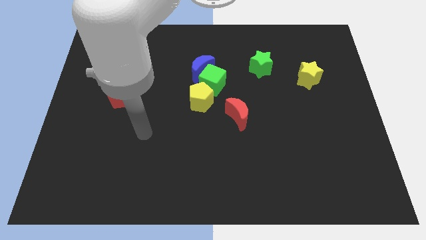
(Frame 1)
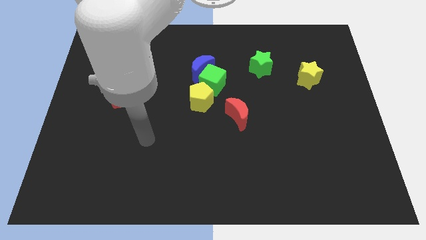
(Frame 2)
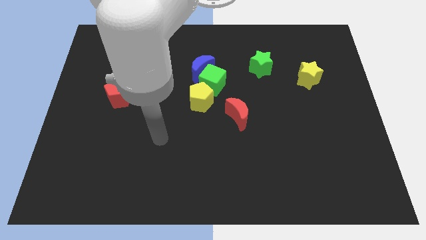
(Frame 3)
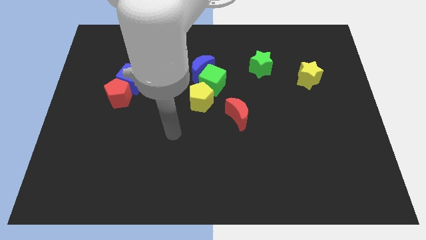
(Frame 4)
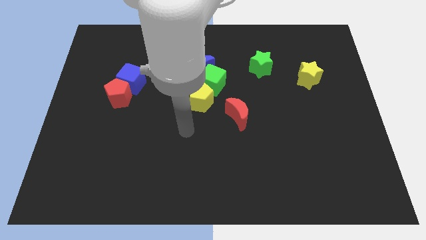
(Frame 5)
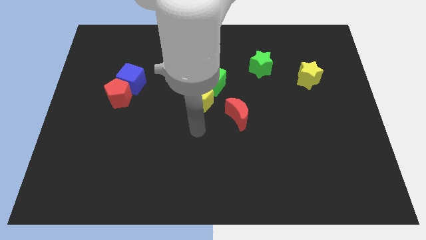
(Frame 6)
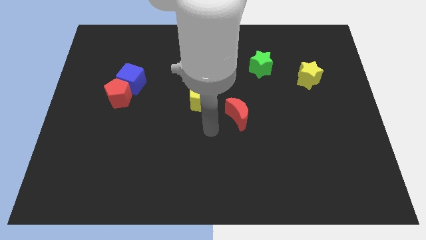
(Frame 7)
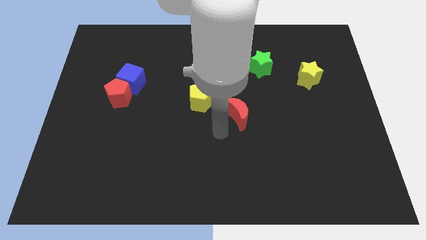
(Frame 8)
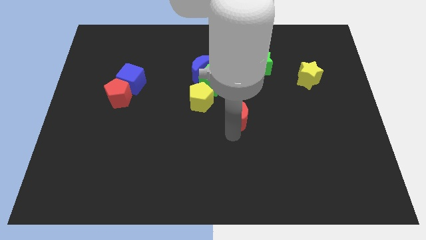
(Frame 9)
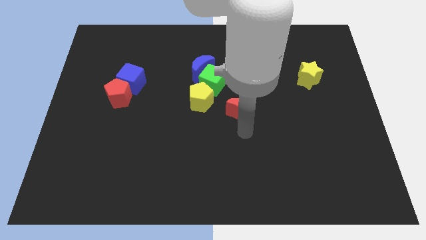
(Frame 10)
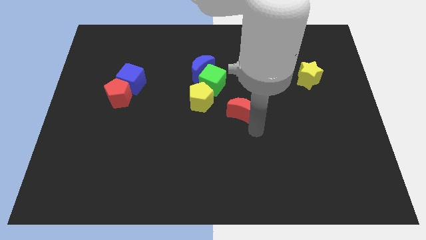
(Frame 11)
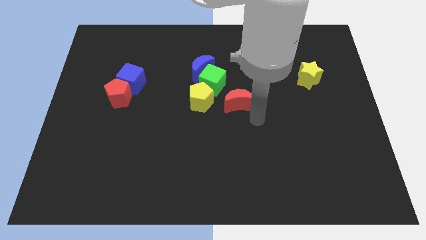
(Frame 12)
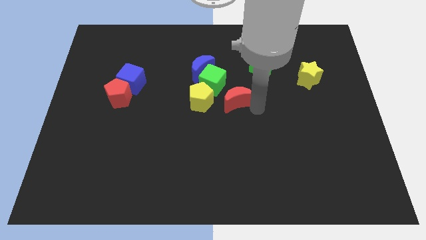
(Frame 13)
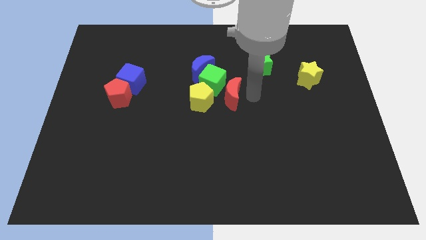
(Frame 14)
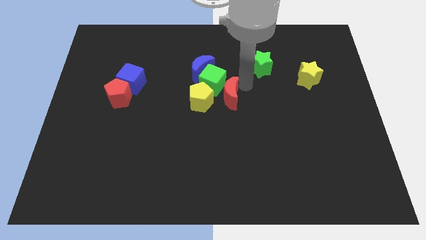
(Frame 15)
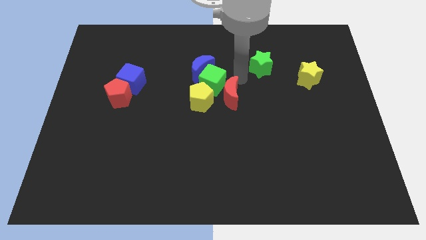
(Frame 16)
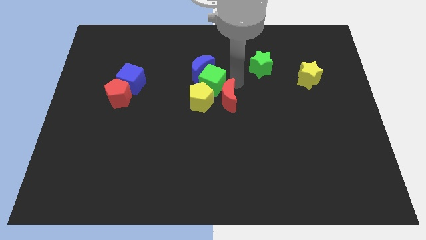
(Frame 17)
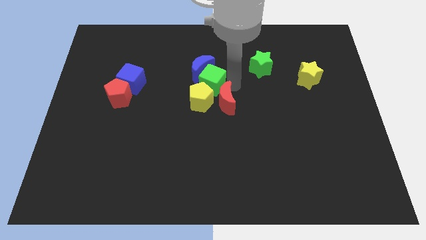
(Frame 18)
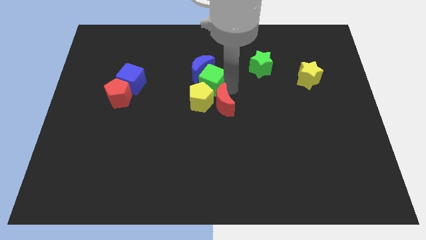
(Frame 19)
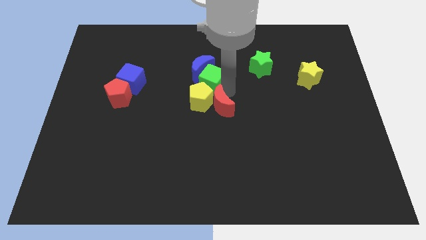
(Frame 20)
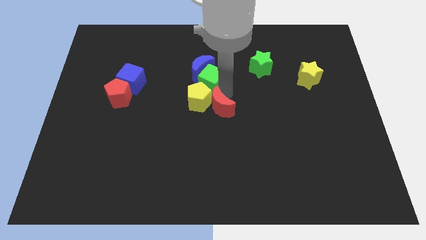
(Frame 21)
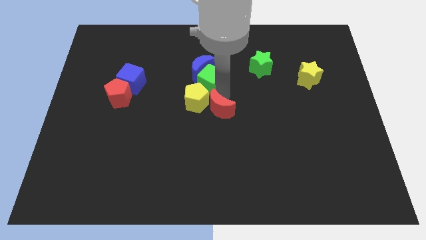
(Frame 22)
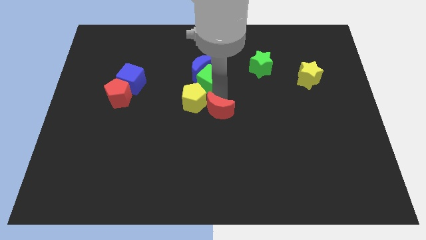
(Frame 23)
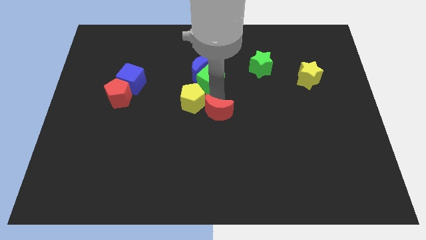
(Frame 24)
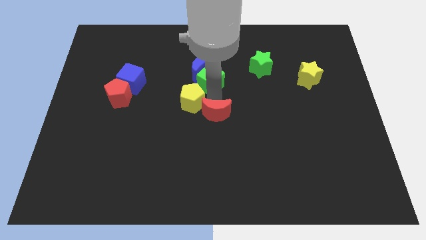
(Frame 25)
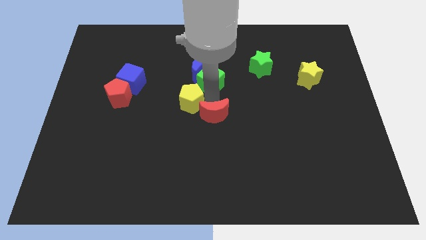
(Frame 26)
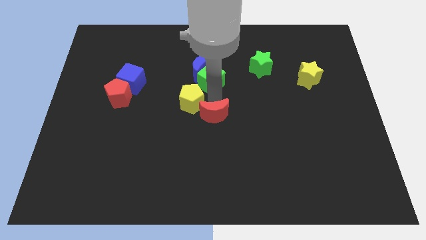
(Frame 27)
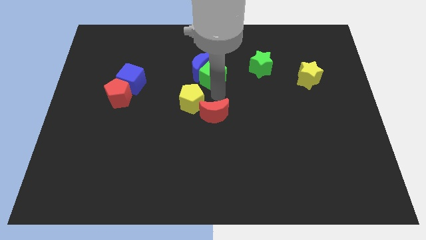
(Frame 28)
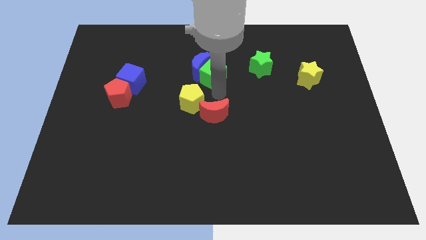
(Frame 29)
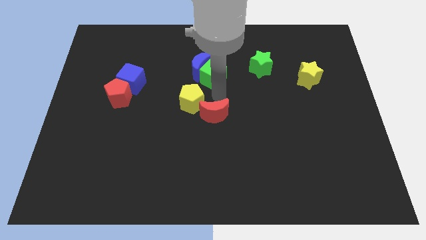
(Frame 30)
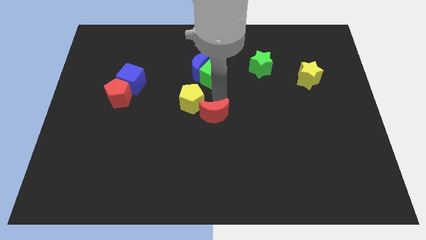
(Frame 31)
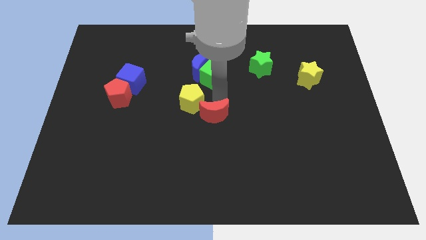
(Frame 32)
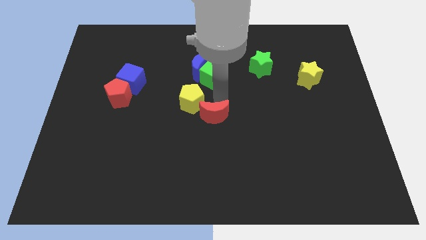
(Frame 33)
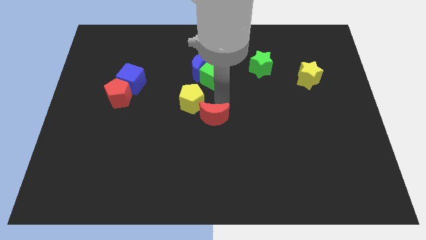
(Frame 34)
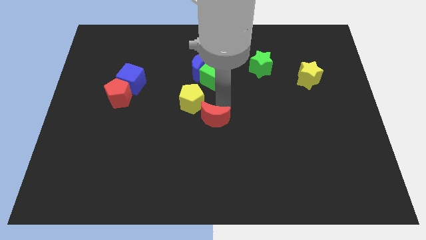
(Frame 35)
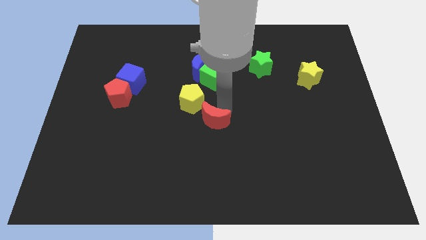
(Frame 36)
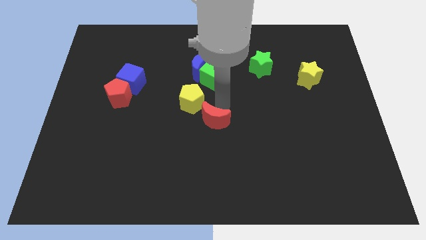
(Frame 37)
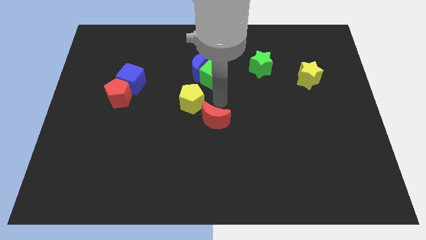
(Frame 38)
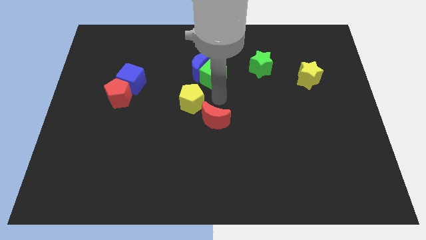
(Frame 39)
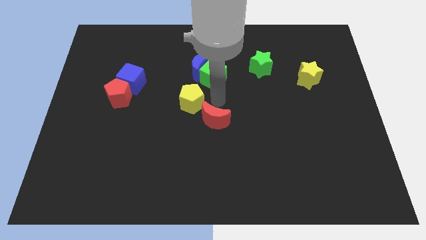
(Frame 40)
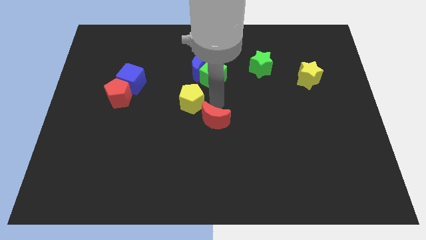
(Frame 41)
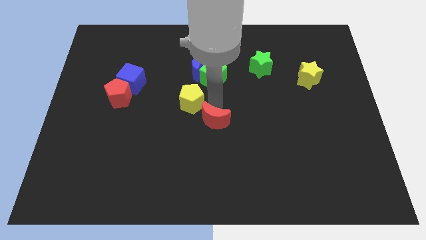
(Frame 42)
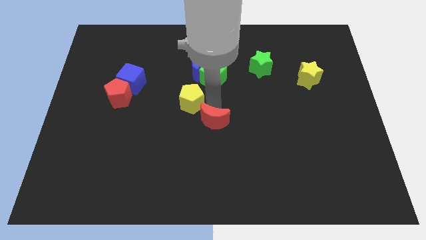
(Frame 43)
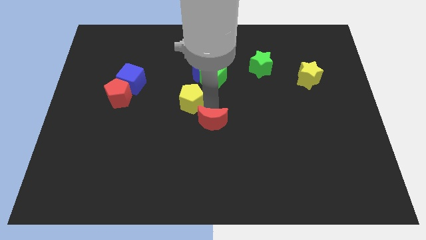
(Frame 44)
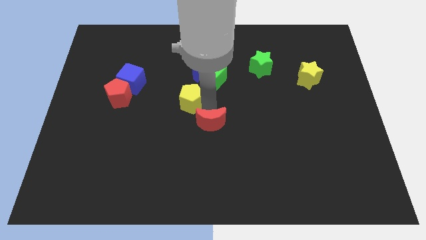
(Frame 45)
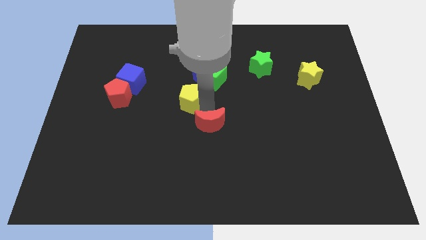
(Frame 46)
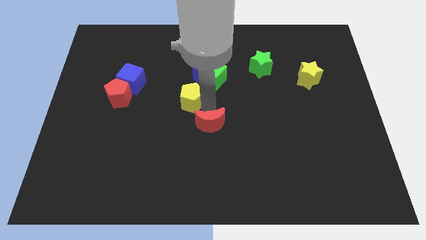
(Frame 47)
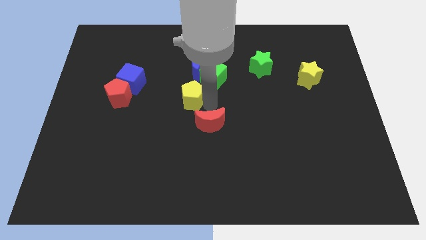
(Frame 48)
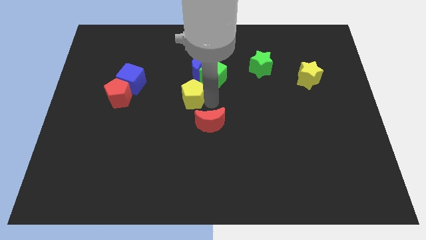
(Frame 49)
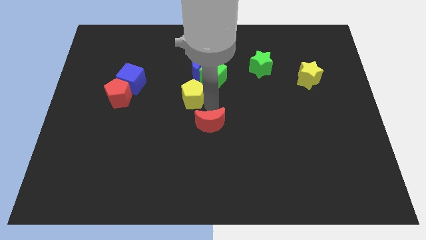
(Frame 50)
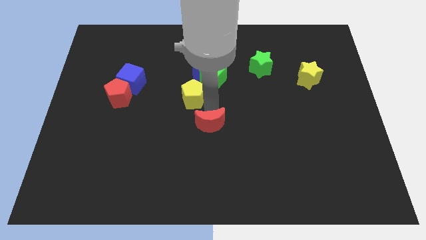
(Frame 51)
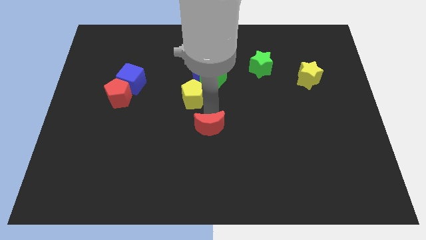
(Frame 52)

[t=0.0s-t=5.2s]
push the red moon diagonally downwards and left a little bit

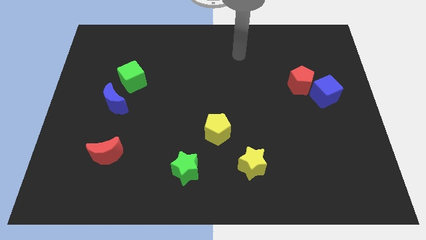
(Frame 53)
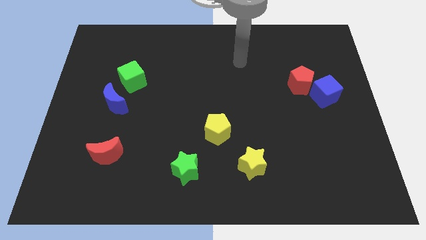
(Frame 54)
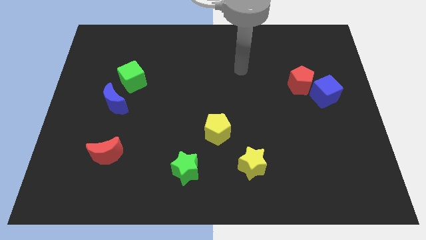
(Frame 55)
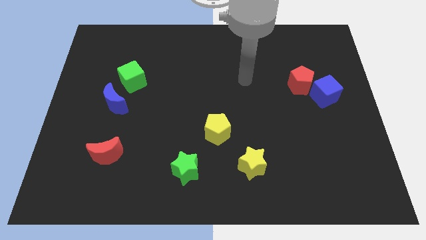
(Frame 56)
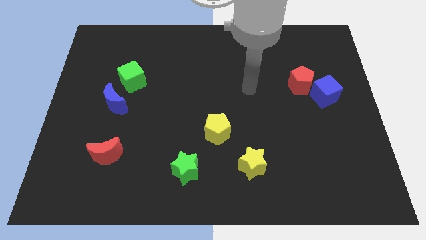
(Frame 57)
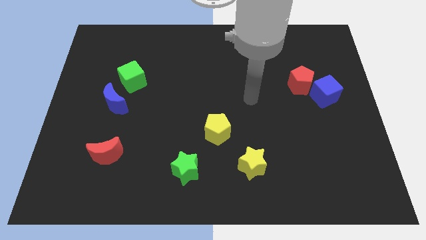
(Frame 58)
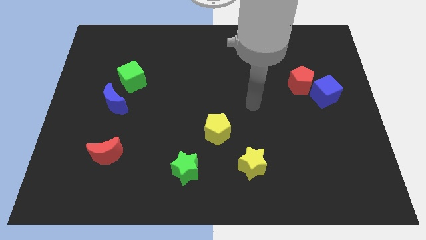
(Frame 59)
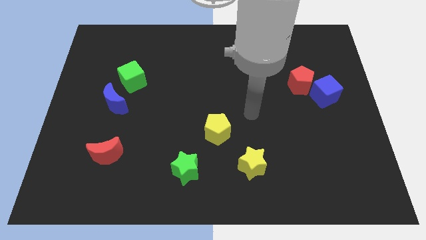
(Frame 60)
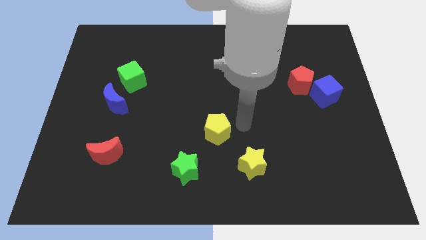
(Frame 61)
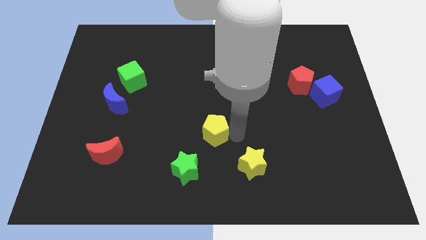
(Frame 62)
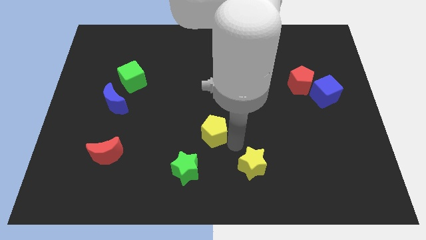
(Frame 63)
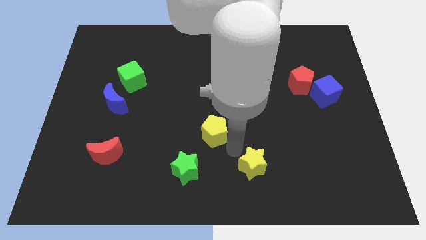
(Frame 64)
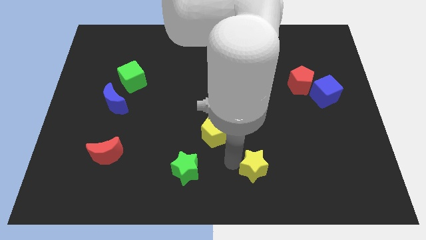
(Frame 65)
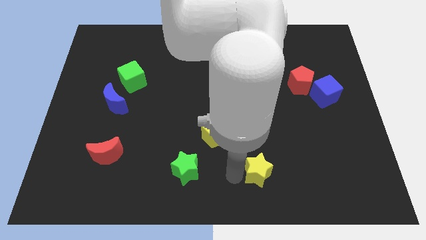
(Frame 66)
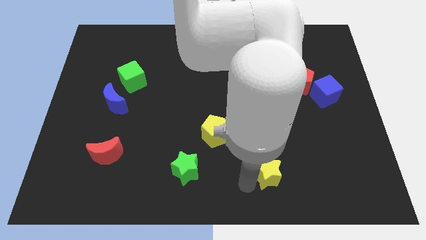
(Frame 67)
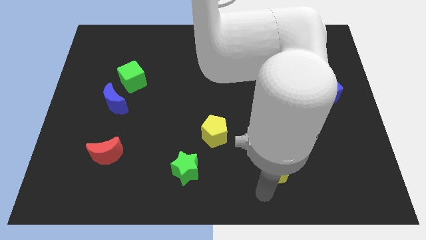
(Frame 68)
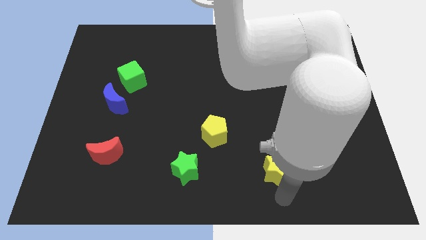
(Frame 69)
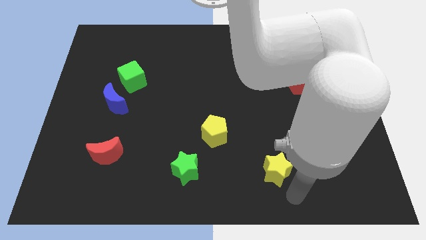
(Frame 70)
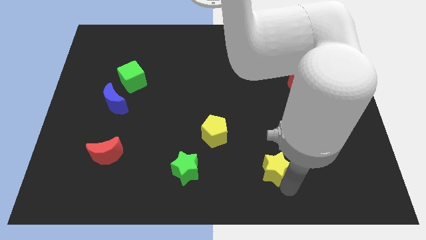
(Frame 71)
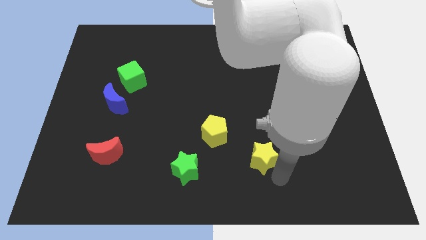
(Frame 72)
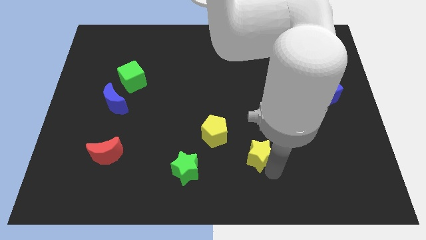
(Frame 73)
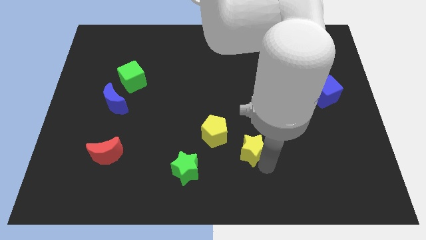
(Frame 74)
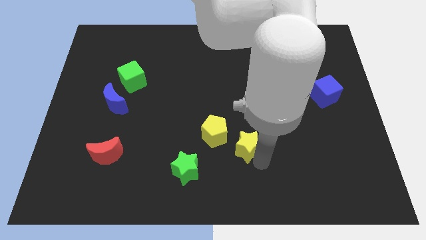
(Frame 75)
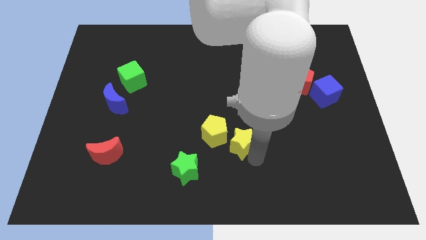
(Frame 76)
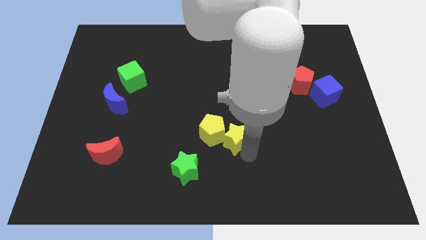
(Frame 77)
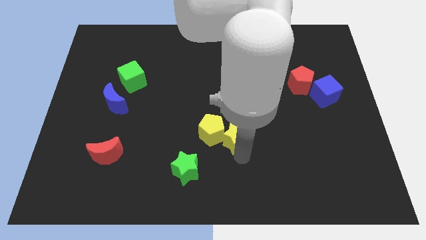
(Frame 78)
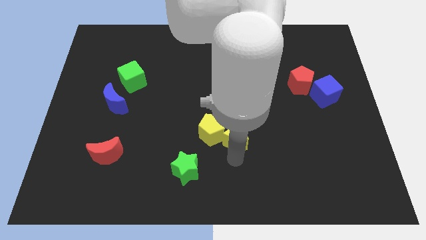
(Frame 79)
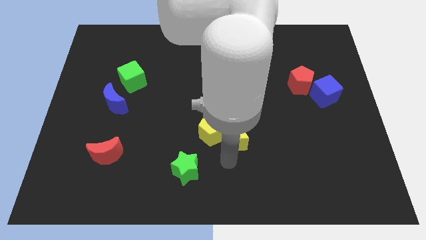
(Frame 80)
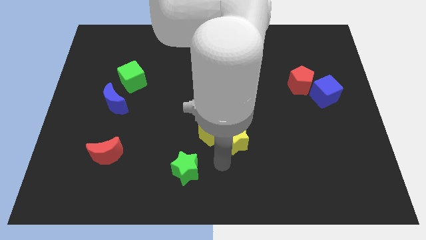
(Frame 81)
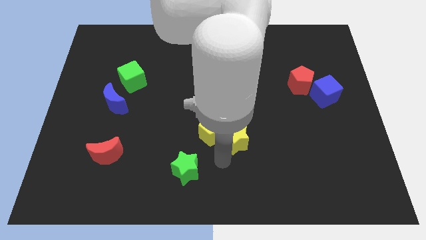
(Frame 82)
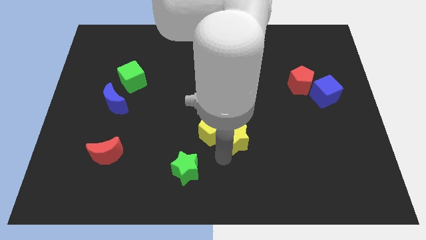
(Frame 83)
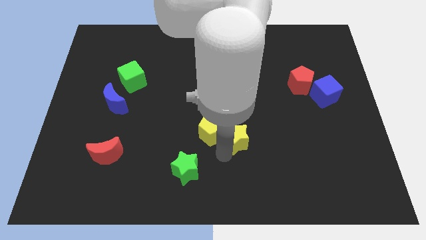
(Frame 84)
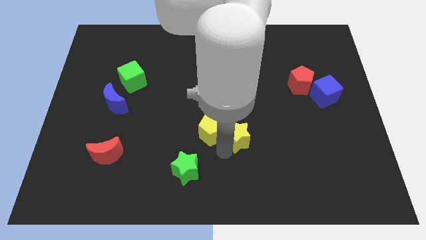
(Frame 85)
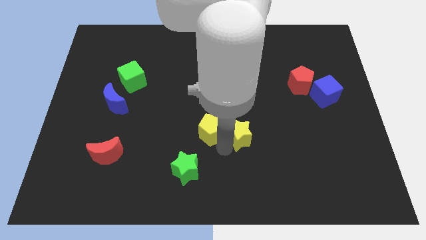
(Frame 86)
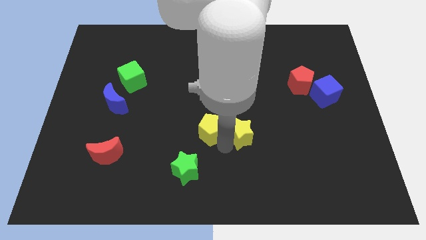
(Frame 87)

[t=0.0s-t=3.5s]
move the yellow star a little up
